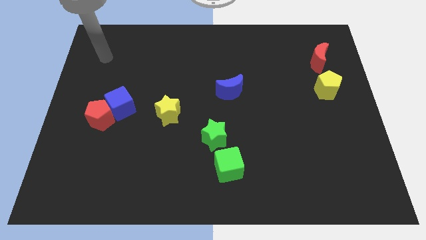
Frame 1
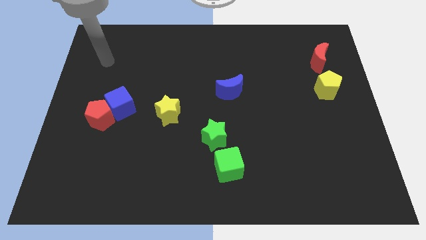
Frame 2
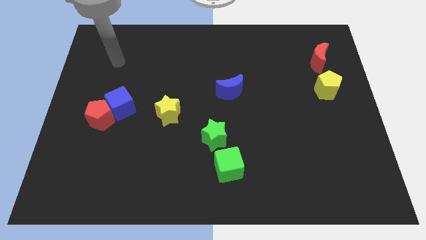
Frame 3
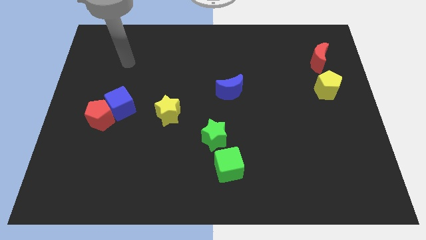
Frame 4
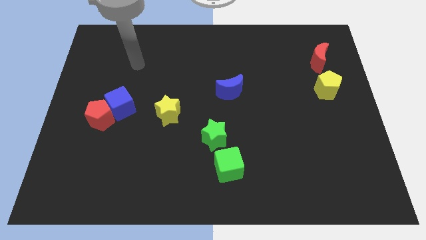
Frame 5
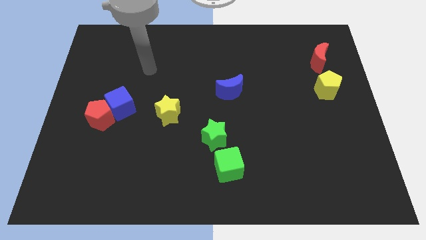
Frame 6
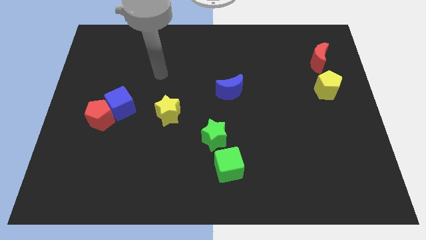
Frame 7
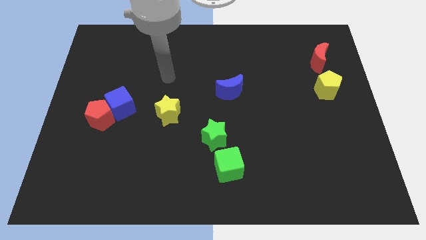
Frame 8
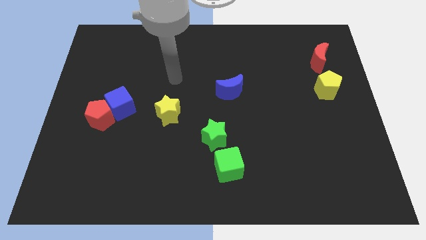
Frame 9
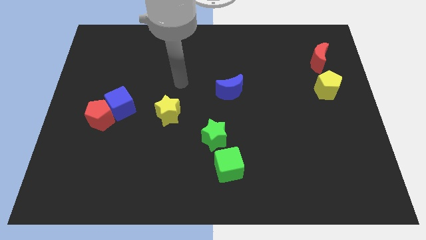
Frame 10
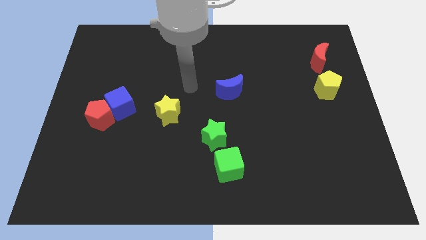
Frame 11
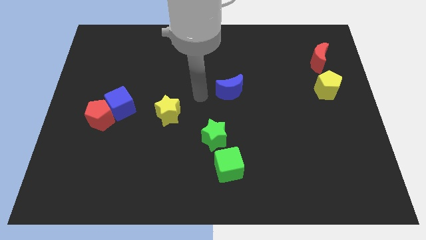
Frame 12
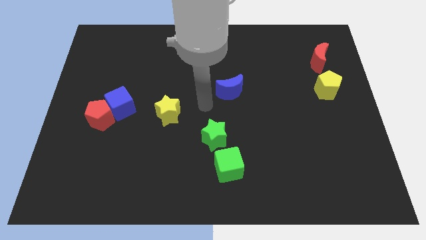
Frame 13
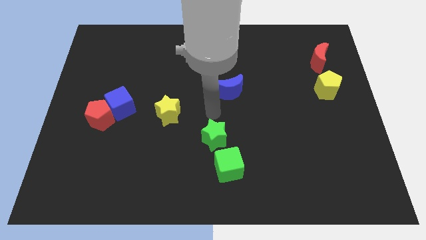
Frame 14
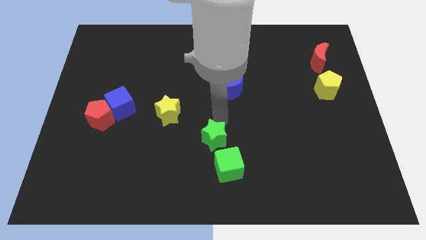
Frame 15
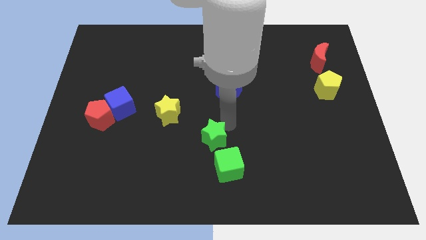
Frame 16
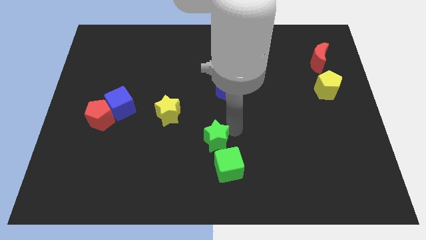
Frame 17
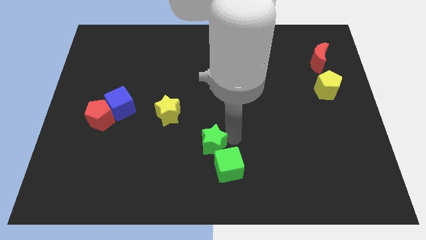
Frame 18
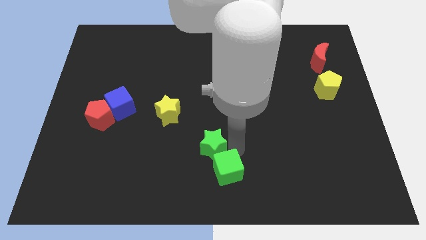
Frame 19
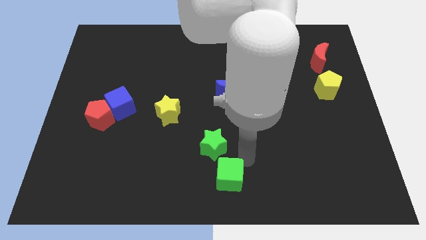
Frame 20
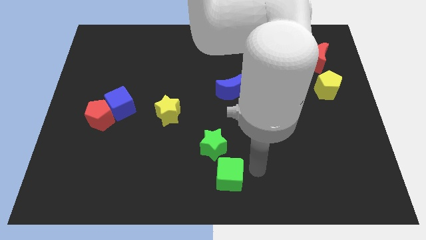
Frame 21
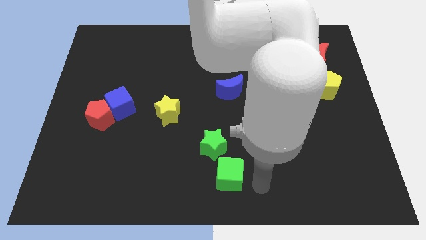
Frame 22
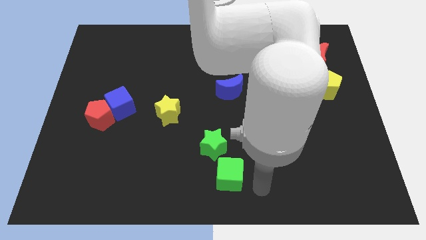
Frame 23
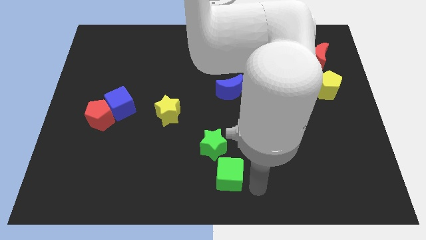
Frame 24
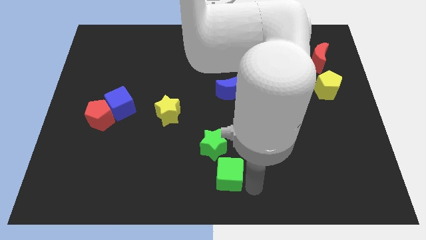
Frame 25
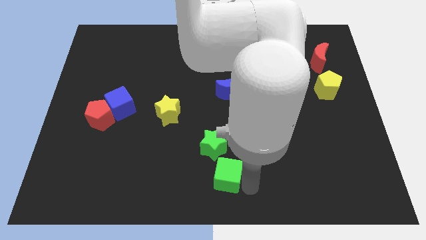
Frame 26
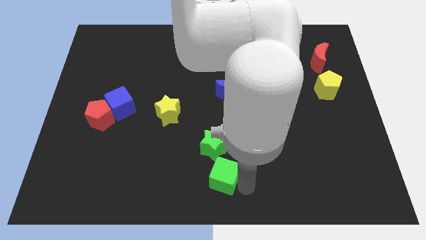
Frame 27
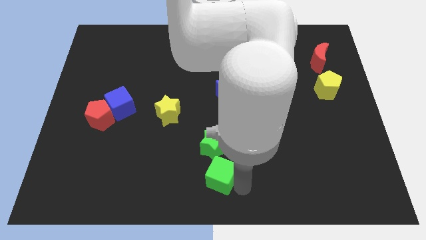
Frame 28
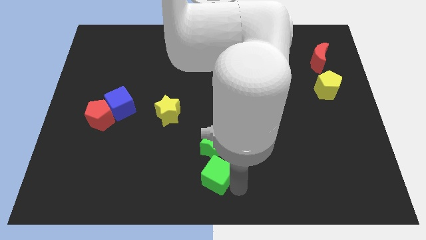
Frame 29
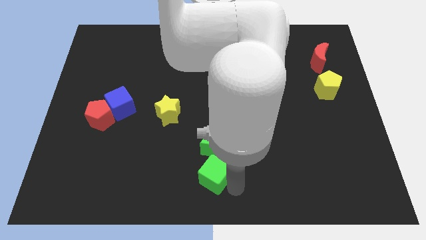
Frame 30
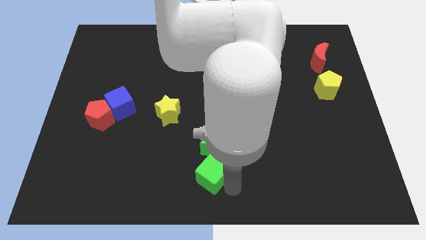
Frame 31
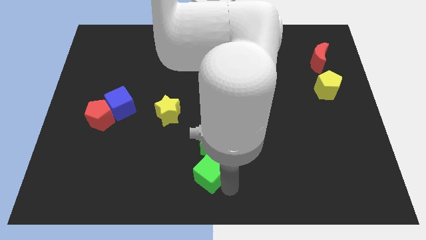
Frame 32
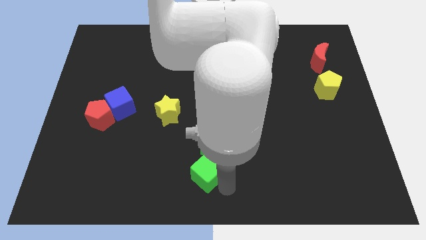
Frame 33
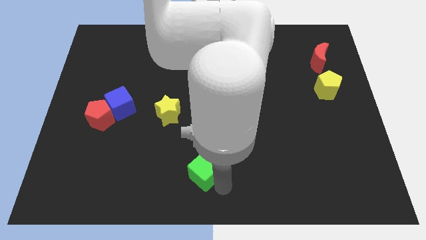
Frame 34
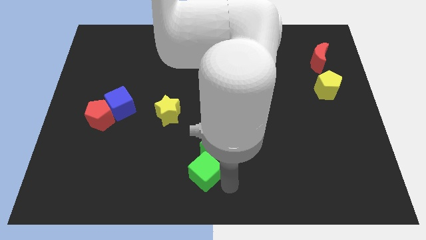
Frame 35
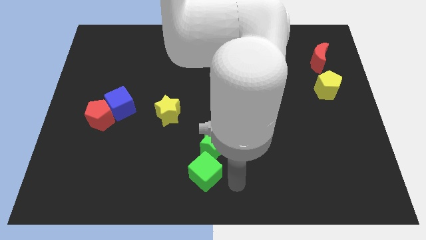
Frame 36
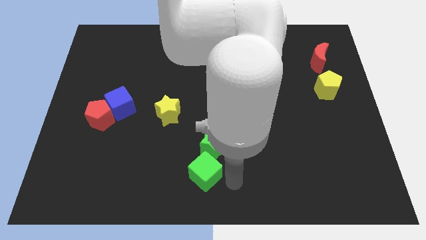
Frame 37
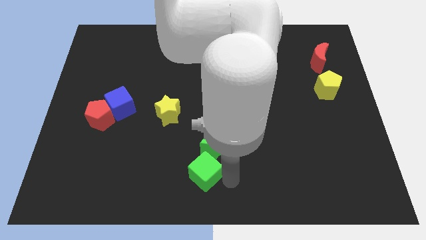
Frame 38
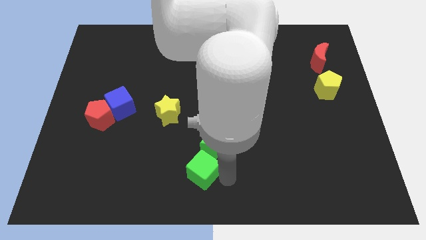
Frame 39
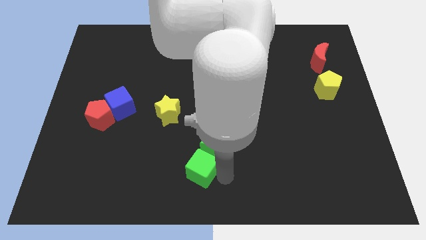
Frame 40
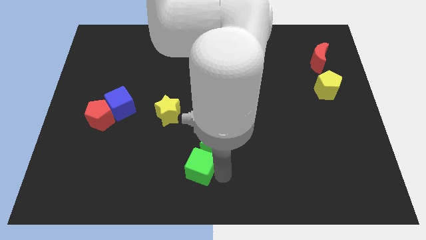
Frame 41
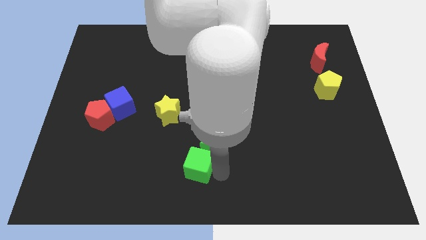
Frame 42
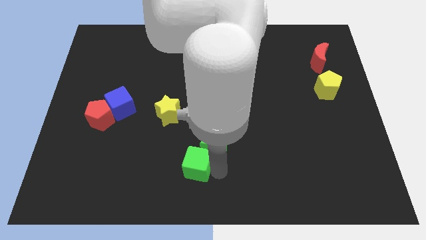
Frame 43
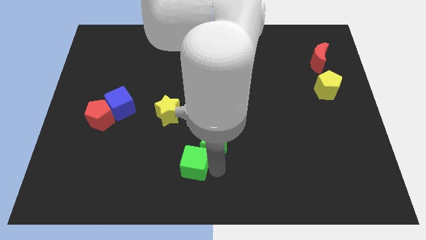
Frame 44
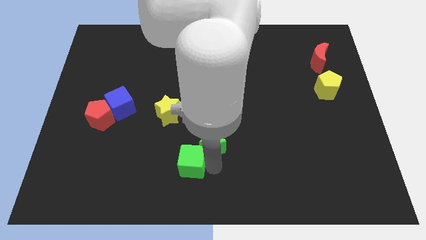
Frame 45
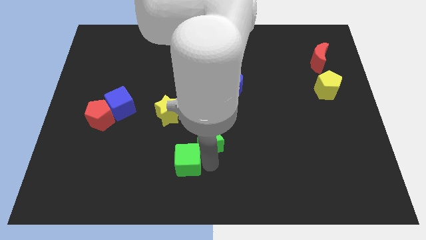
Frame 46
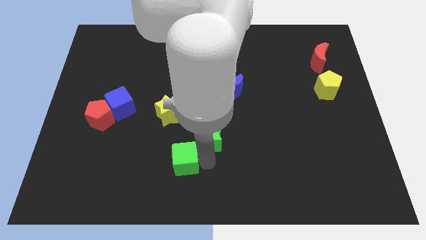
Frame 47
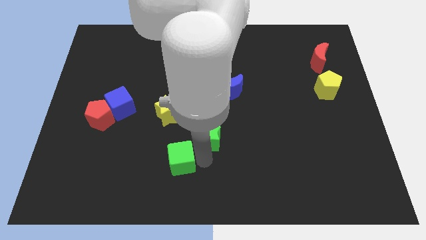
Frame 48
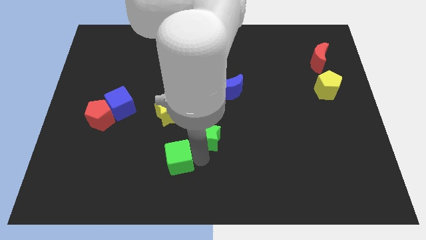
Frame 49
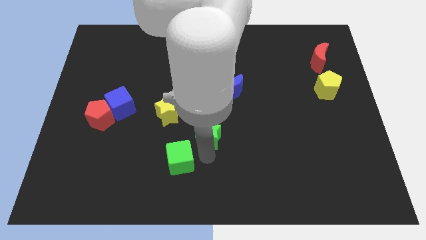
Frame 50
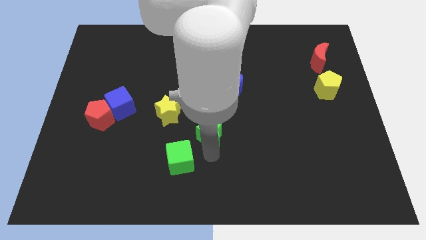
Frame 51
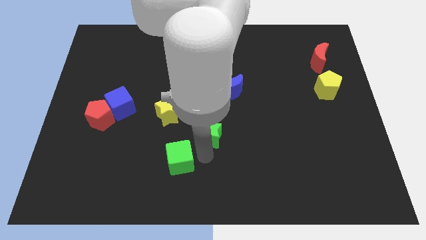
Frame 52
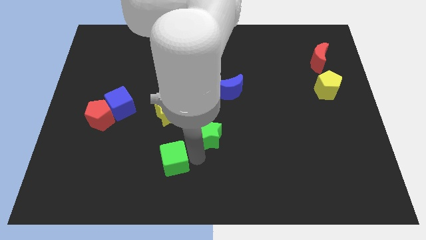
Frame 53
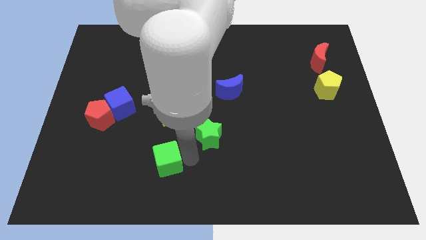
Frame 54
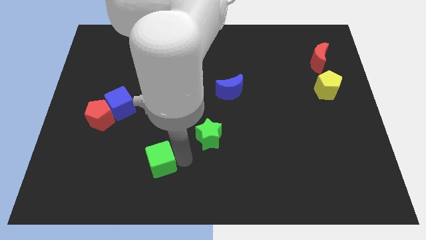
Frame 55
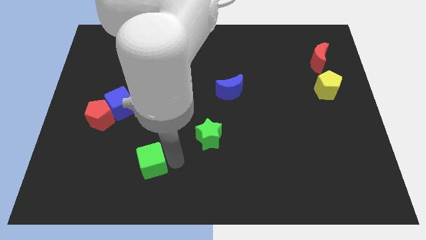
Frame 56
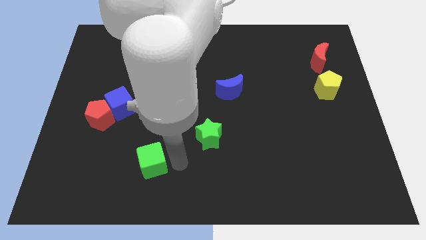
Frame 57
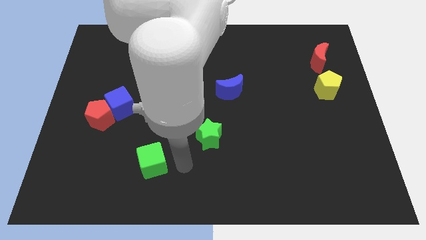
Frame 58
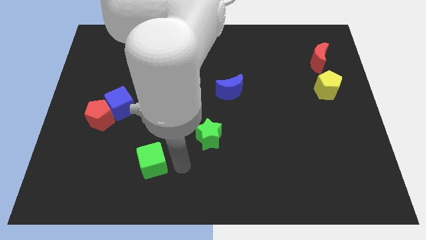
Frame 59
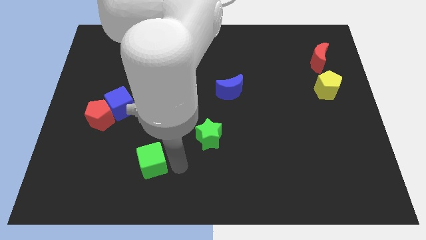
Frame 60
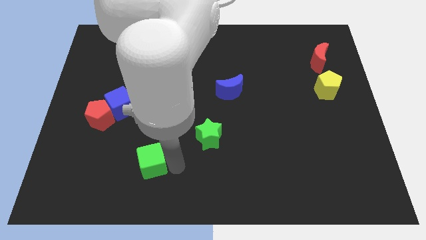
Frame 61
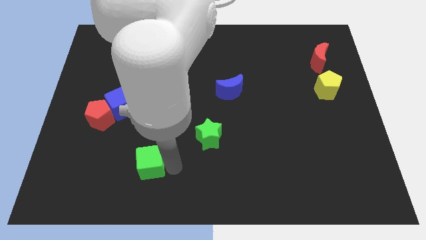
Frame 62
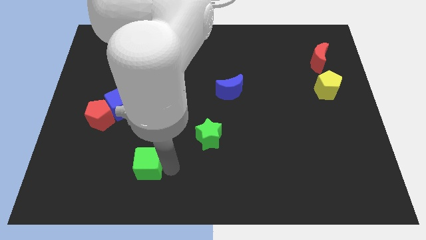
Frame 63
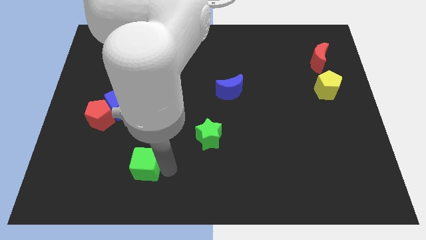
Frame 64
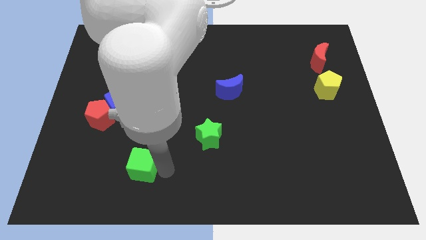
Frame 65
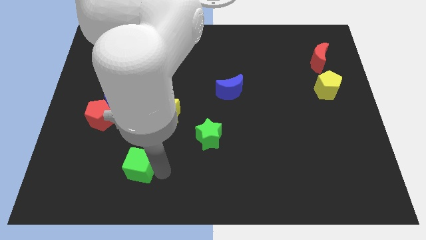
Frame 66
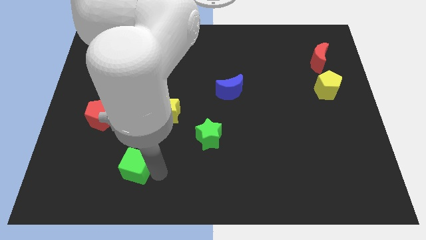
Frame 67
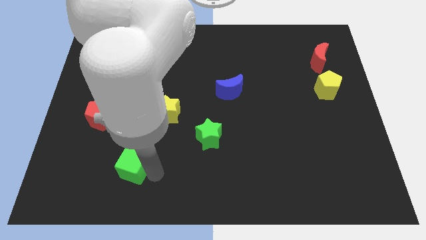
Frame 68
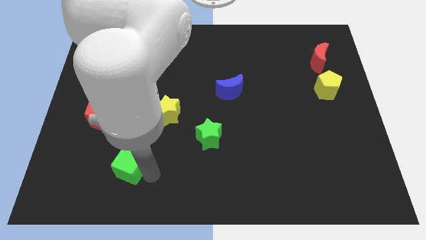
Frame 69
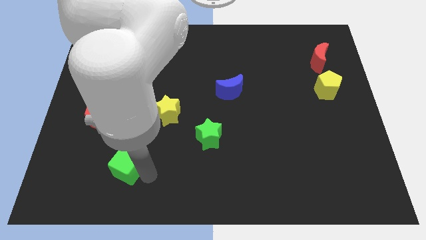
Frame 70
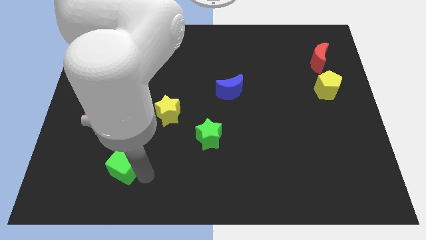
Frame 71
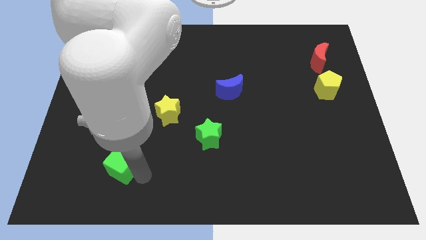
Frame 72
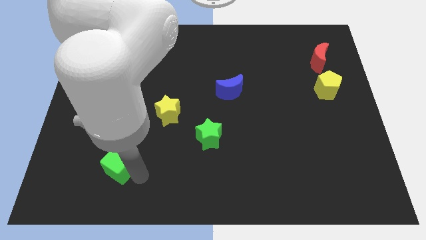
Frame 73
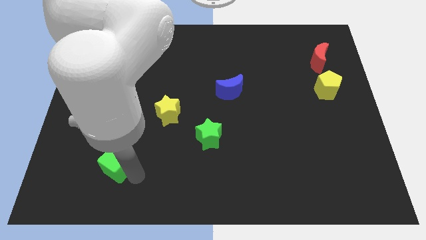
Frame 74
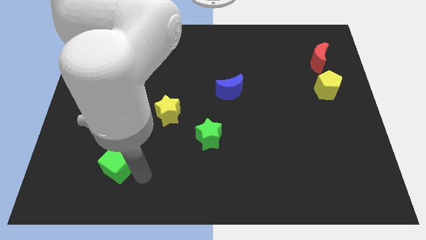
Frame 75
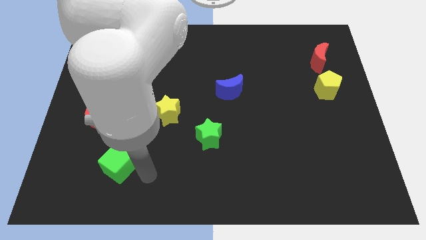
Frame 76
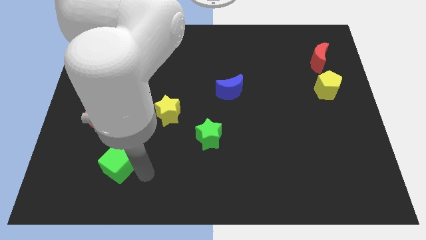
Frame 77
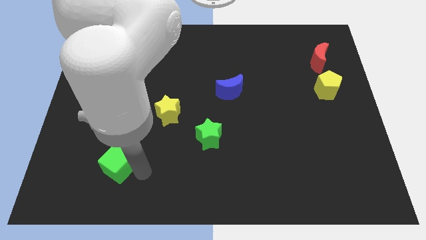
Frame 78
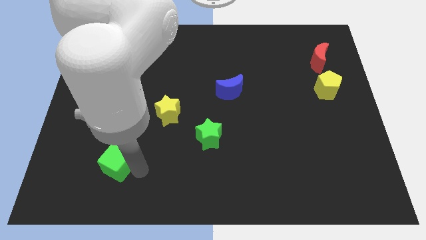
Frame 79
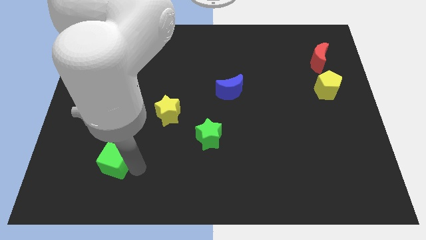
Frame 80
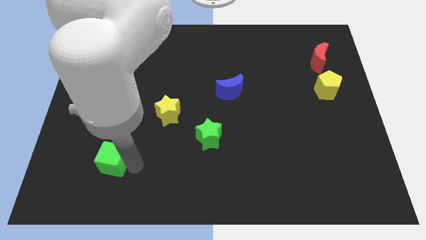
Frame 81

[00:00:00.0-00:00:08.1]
slide the green cube to the bottom of the red pentagon
